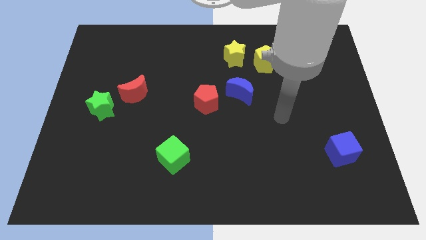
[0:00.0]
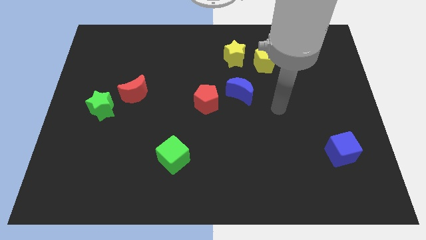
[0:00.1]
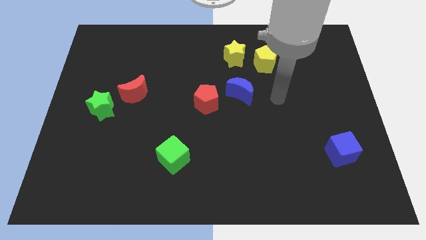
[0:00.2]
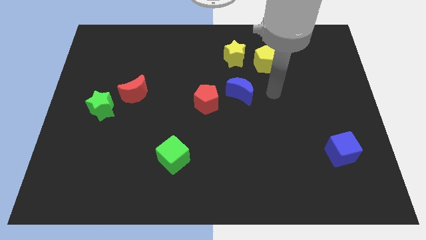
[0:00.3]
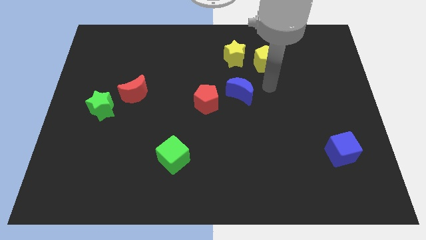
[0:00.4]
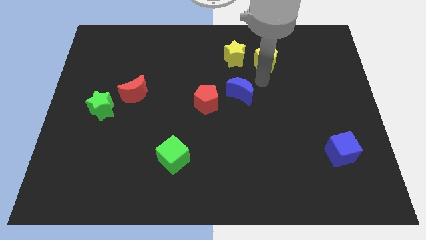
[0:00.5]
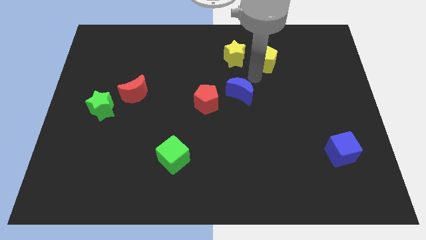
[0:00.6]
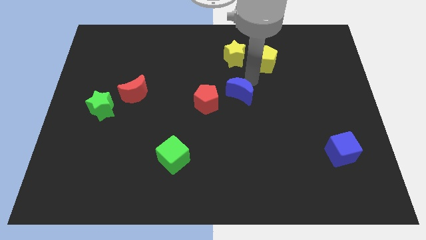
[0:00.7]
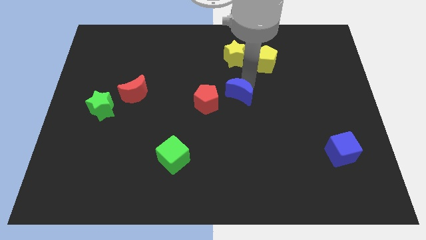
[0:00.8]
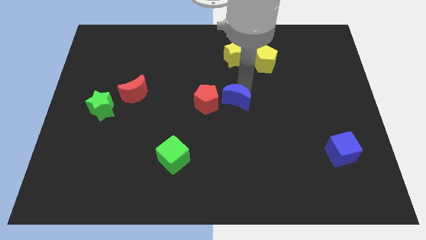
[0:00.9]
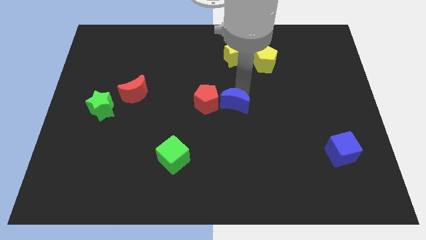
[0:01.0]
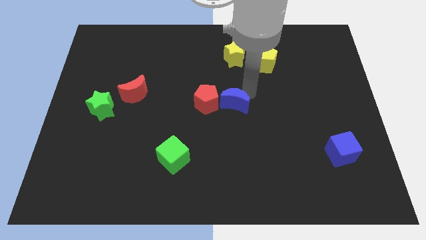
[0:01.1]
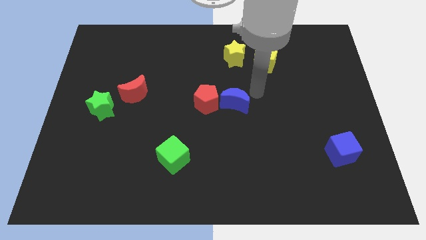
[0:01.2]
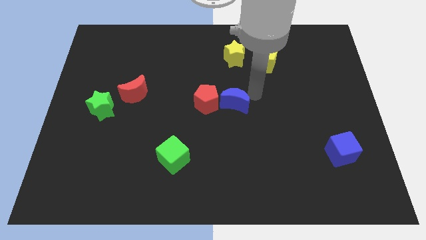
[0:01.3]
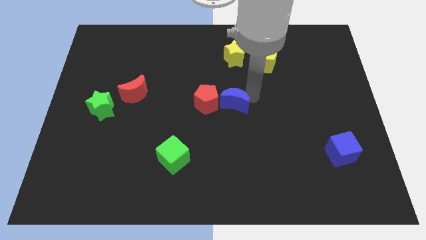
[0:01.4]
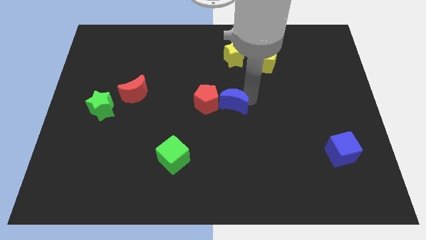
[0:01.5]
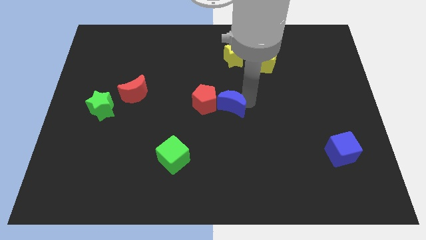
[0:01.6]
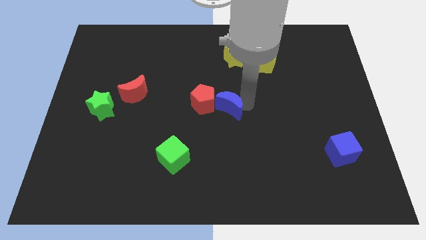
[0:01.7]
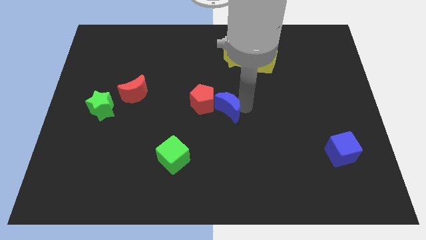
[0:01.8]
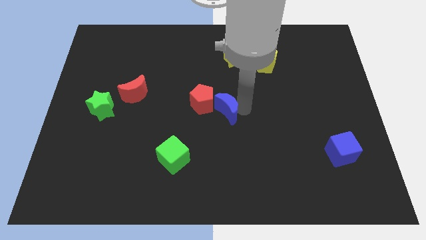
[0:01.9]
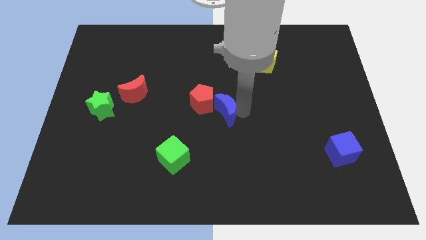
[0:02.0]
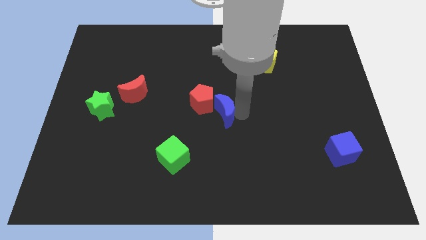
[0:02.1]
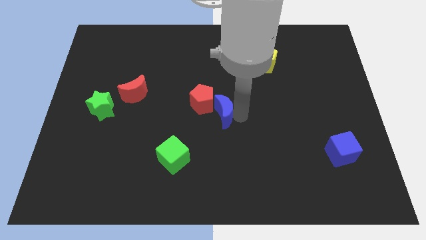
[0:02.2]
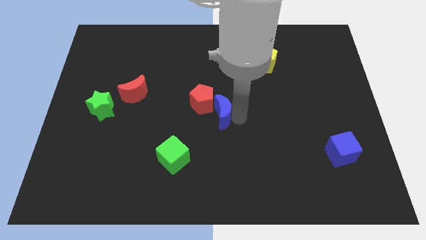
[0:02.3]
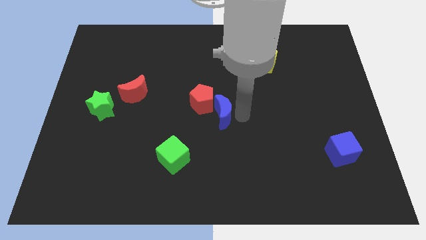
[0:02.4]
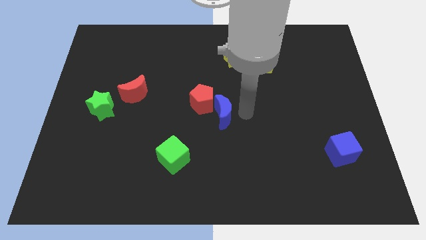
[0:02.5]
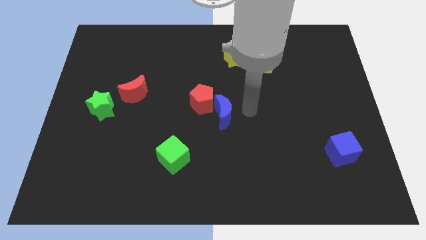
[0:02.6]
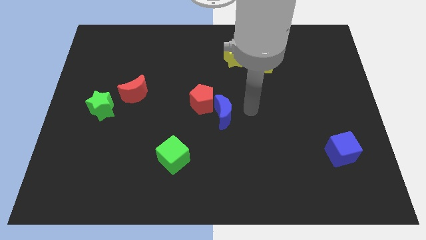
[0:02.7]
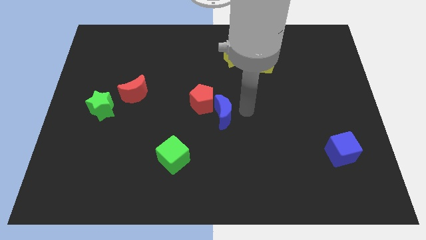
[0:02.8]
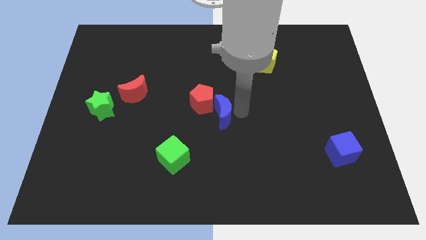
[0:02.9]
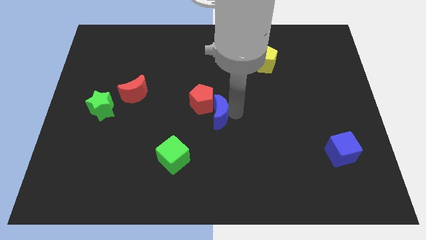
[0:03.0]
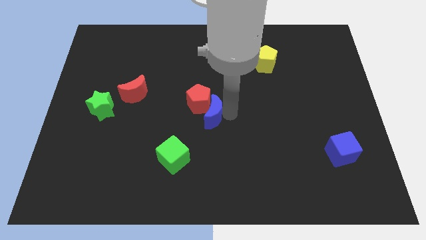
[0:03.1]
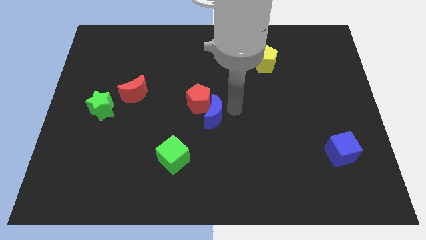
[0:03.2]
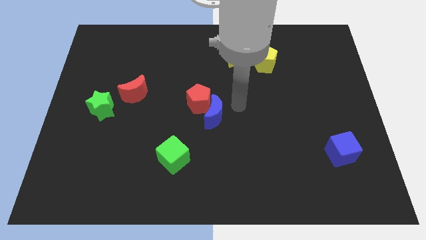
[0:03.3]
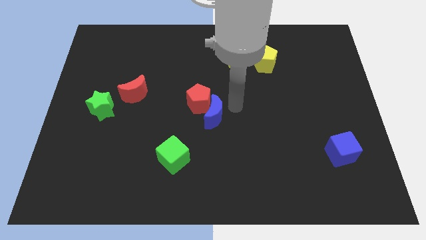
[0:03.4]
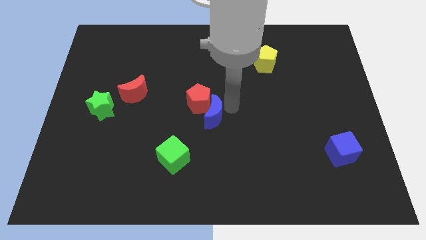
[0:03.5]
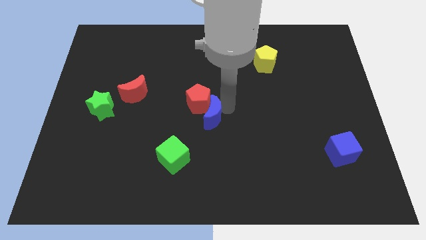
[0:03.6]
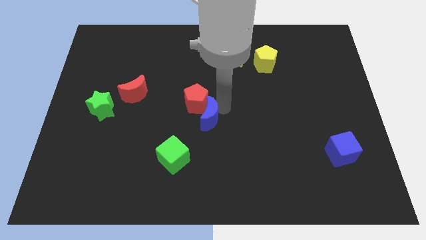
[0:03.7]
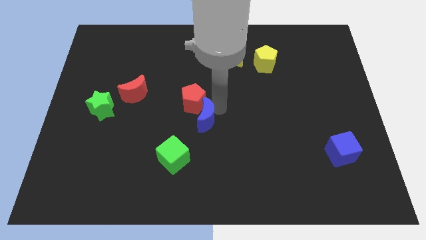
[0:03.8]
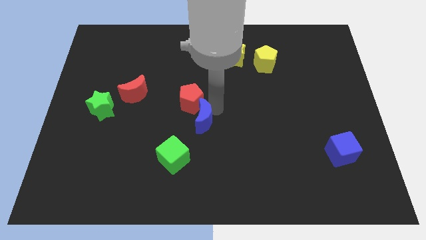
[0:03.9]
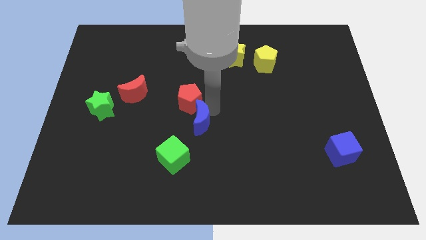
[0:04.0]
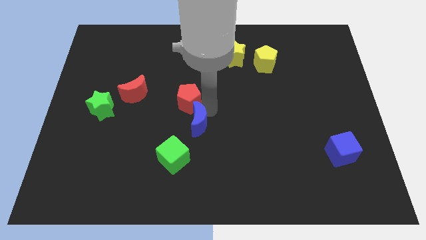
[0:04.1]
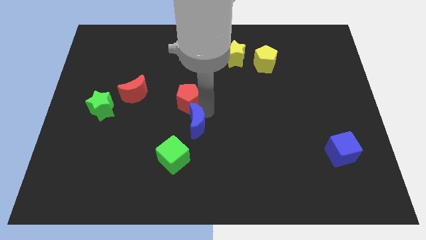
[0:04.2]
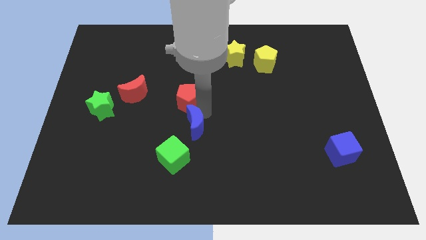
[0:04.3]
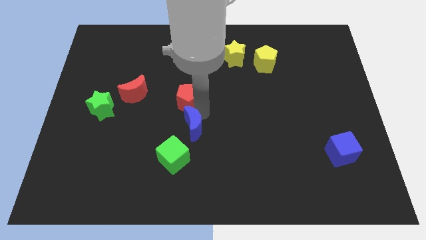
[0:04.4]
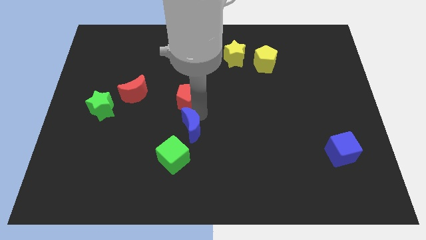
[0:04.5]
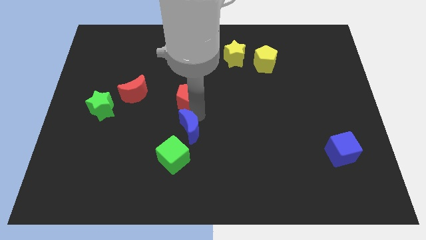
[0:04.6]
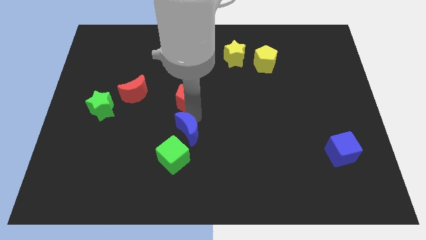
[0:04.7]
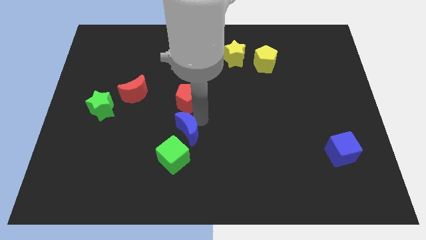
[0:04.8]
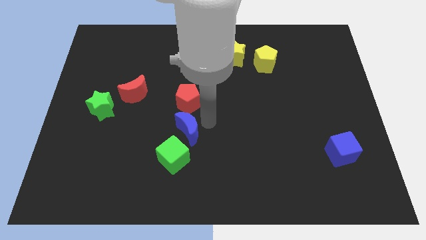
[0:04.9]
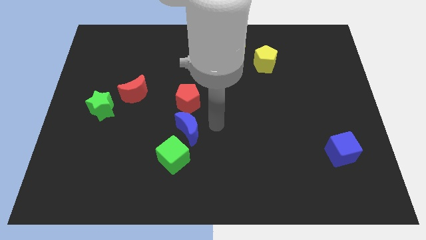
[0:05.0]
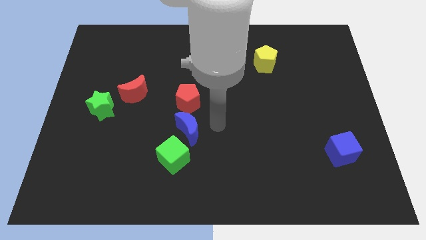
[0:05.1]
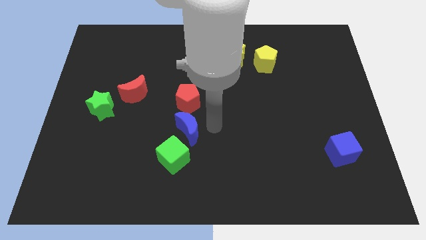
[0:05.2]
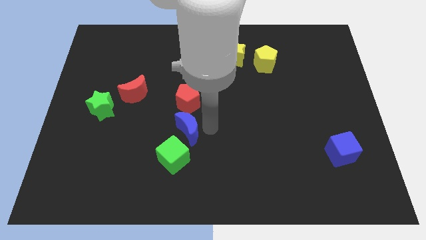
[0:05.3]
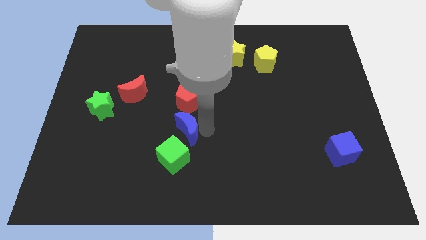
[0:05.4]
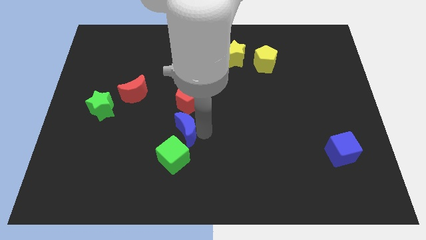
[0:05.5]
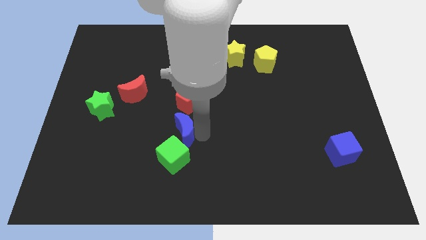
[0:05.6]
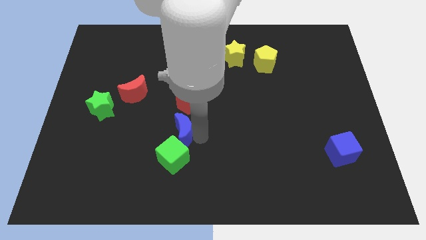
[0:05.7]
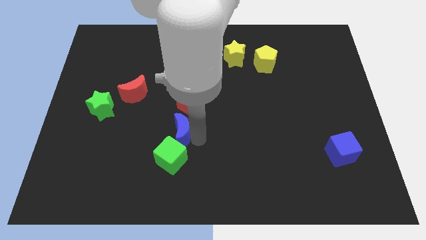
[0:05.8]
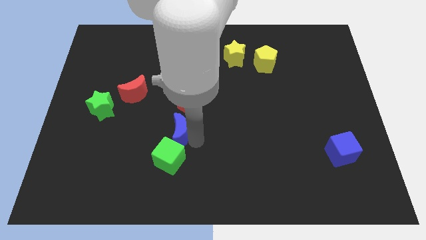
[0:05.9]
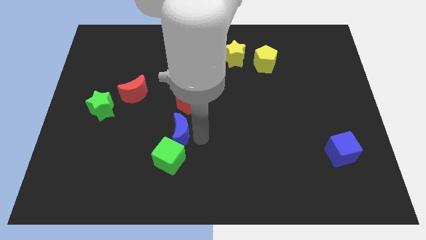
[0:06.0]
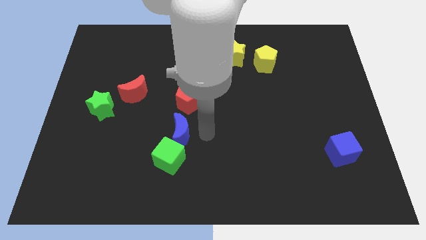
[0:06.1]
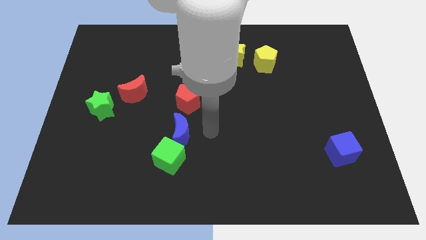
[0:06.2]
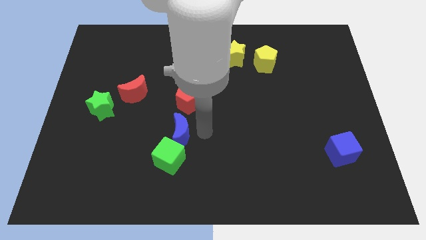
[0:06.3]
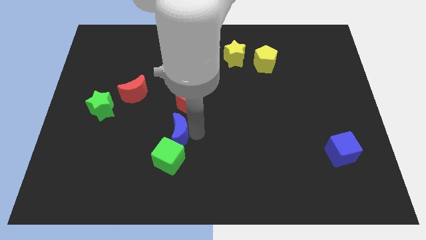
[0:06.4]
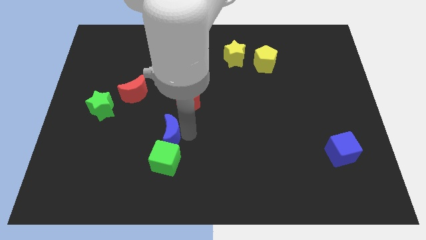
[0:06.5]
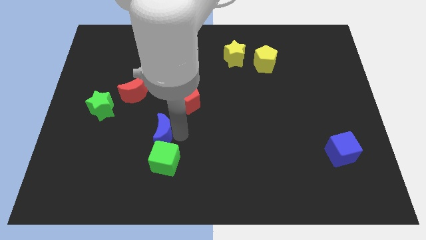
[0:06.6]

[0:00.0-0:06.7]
put the blue moon to the top left side of the green cube

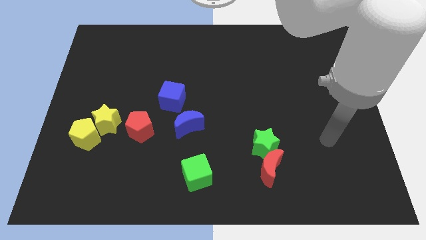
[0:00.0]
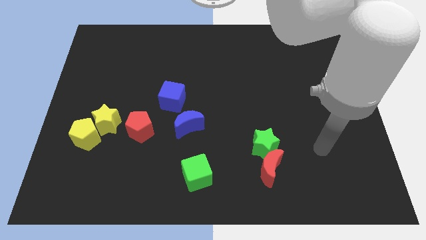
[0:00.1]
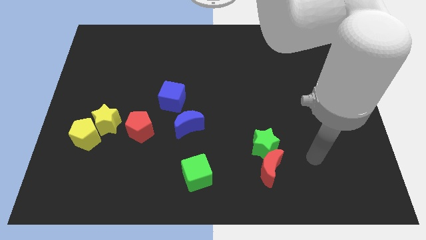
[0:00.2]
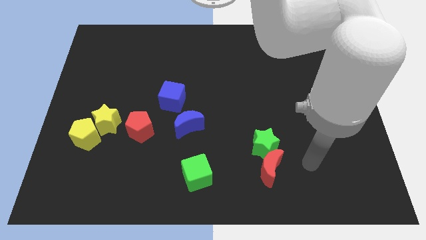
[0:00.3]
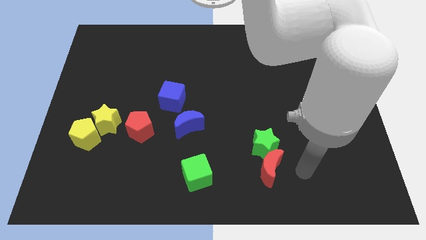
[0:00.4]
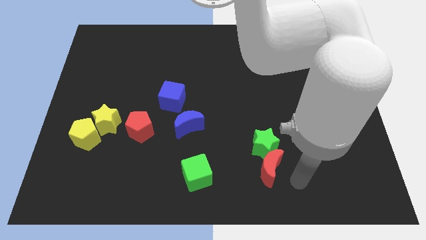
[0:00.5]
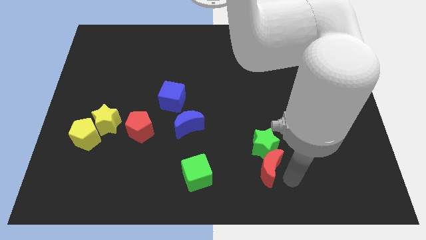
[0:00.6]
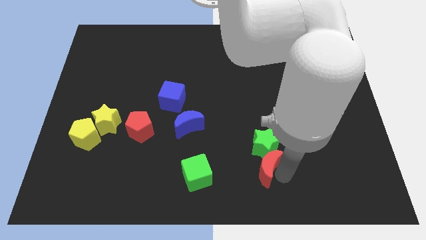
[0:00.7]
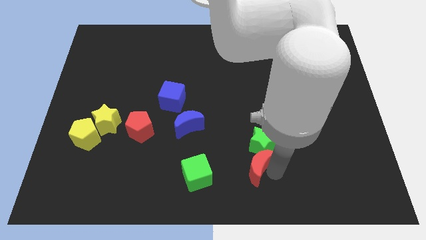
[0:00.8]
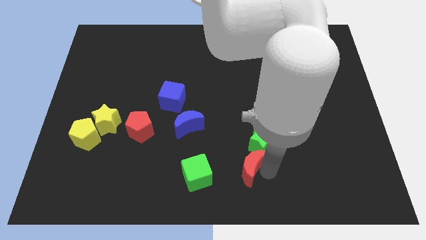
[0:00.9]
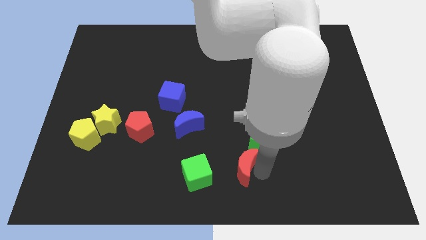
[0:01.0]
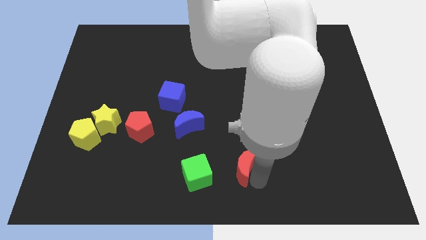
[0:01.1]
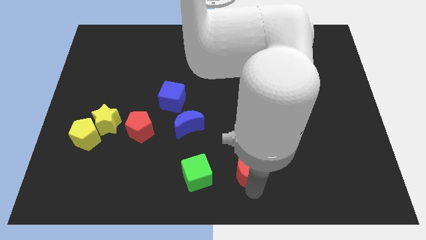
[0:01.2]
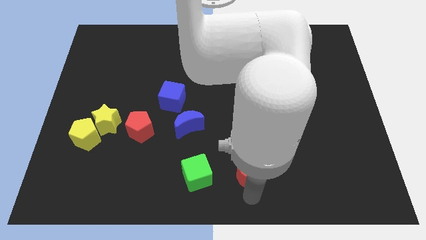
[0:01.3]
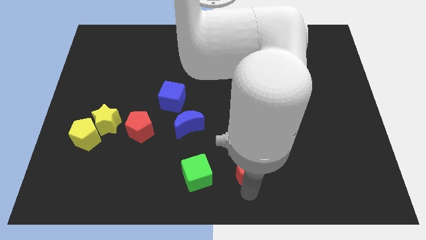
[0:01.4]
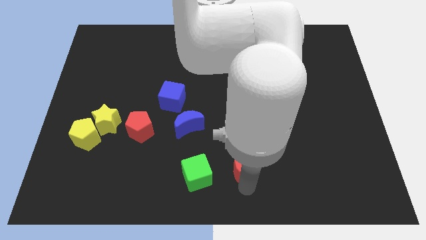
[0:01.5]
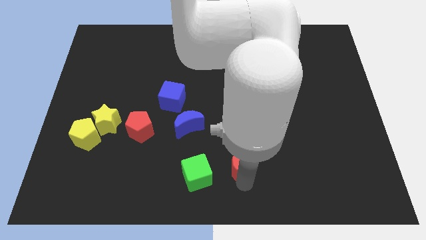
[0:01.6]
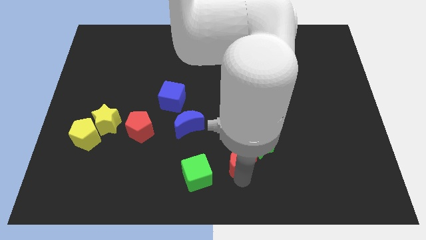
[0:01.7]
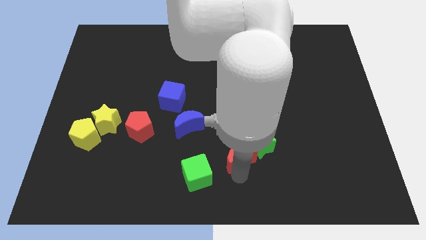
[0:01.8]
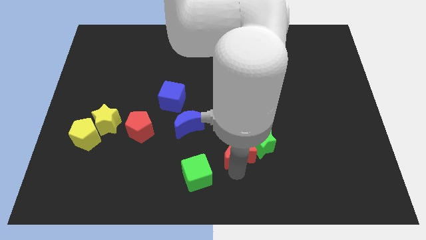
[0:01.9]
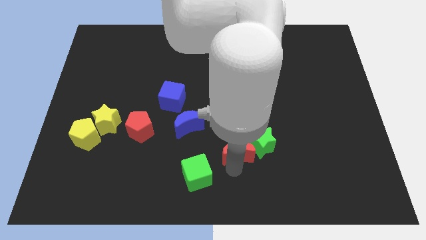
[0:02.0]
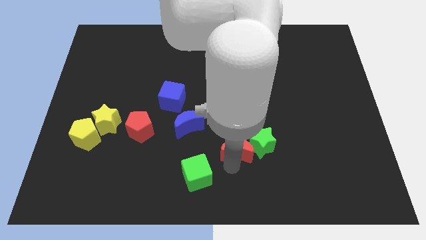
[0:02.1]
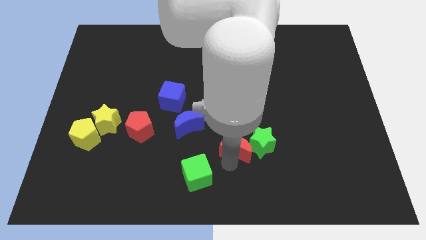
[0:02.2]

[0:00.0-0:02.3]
put the red moon diagonally up and to the left of the green star
